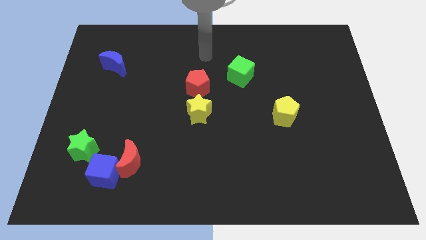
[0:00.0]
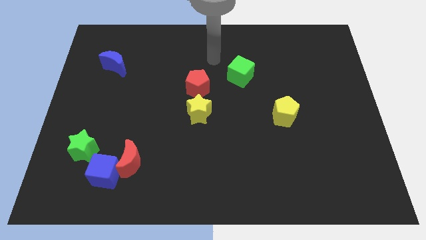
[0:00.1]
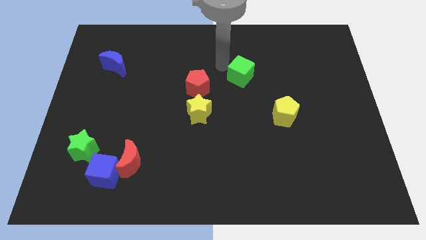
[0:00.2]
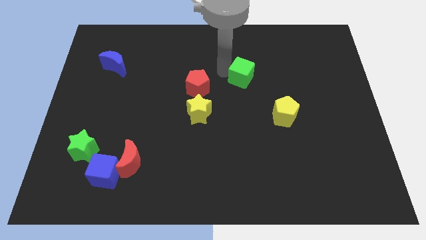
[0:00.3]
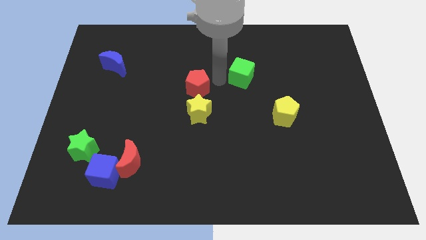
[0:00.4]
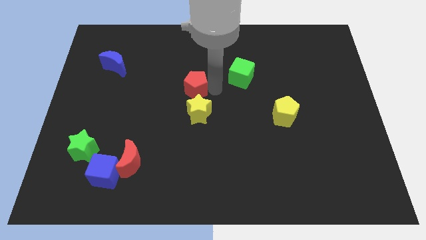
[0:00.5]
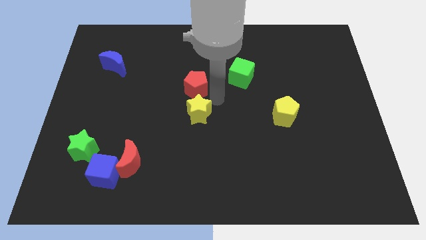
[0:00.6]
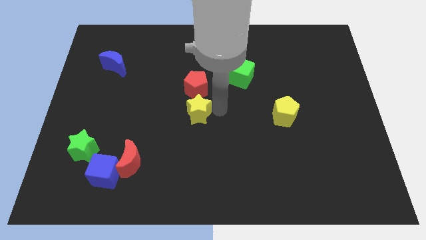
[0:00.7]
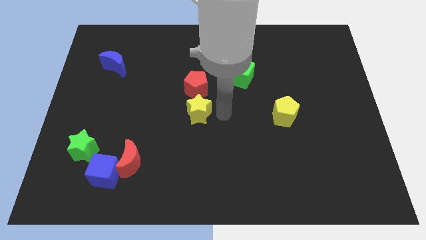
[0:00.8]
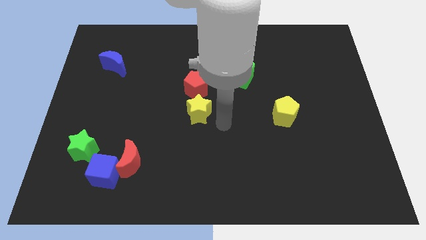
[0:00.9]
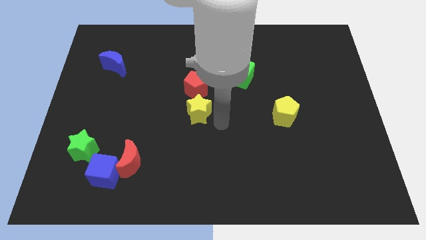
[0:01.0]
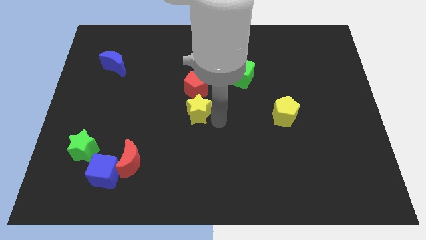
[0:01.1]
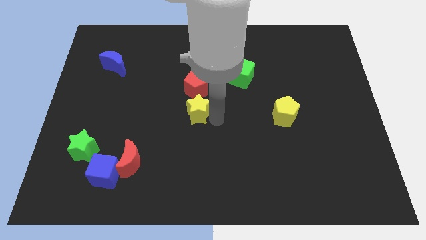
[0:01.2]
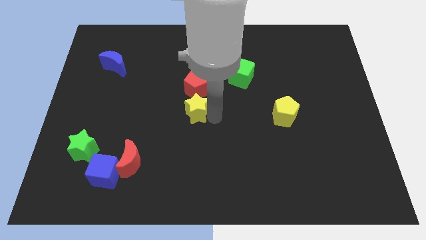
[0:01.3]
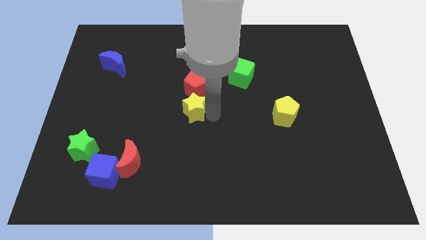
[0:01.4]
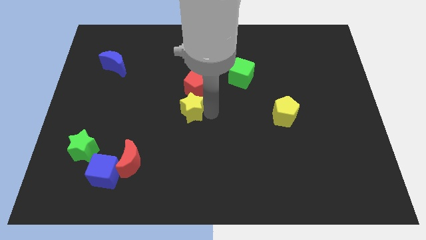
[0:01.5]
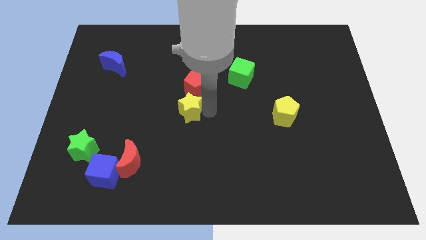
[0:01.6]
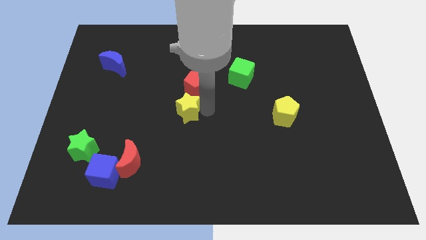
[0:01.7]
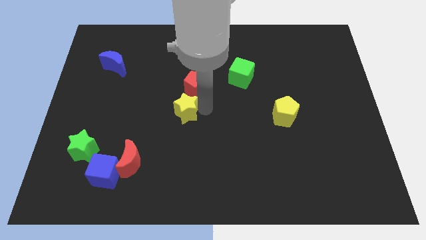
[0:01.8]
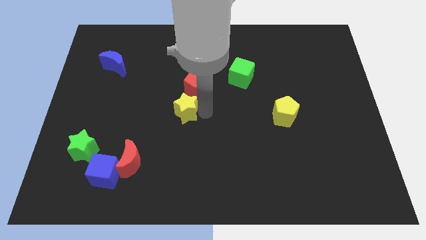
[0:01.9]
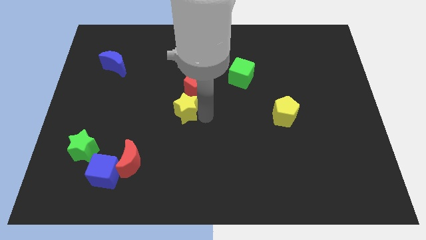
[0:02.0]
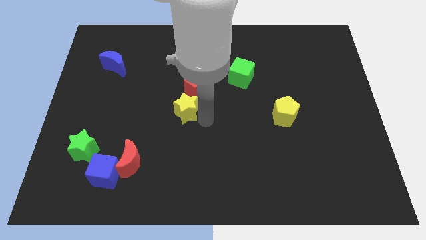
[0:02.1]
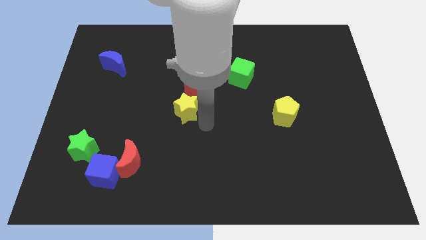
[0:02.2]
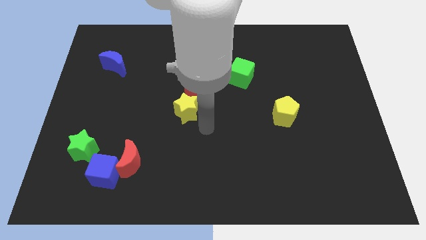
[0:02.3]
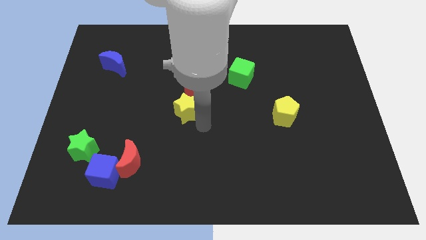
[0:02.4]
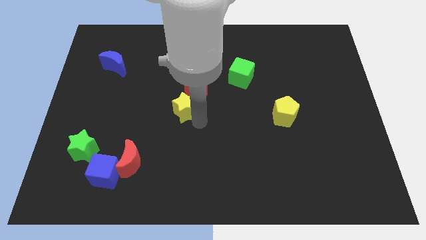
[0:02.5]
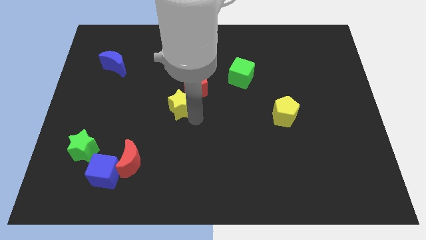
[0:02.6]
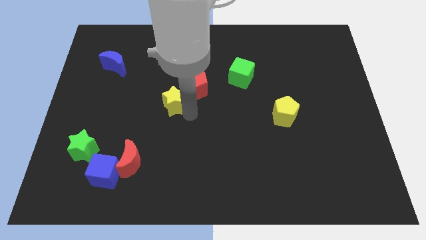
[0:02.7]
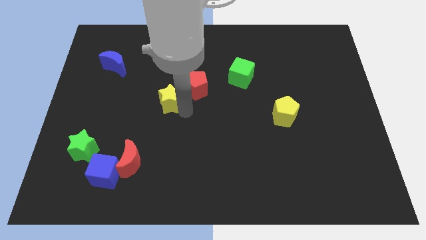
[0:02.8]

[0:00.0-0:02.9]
slide the yellow star upwards and to the left a little bit

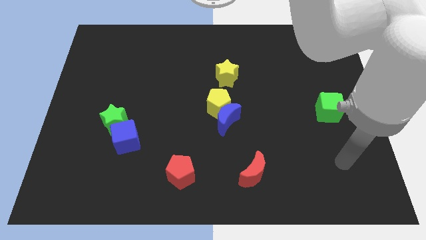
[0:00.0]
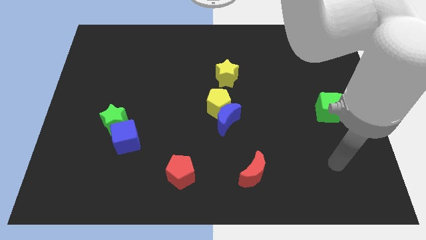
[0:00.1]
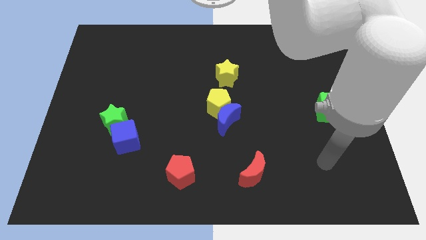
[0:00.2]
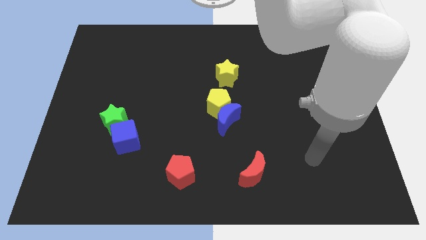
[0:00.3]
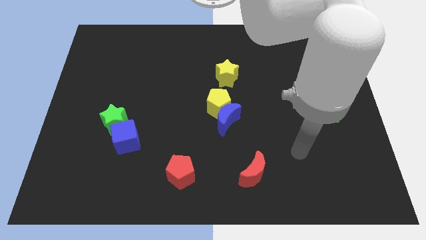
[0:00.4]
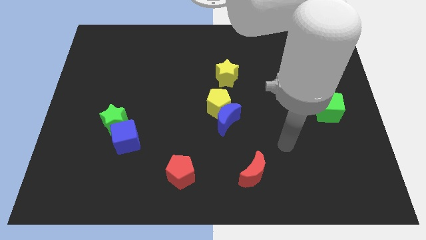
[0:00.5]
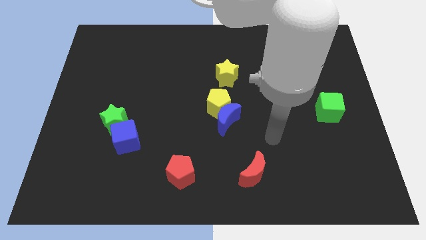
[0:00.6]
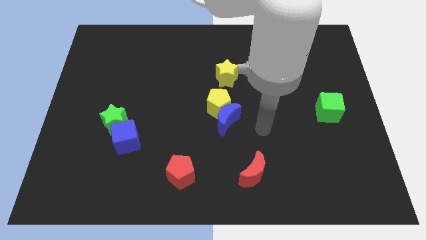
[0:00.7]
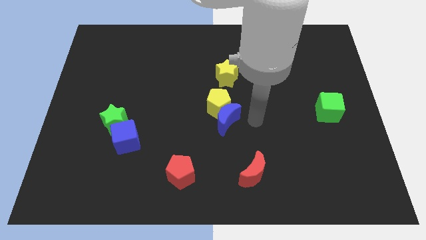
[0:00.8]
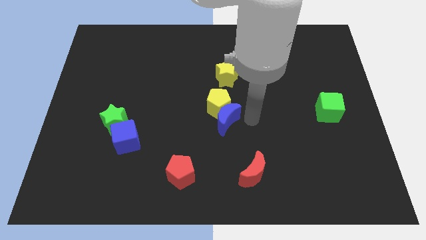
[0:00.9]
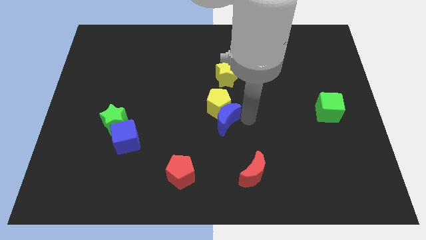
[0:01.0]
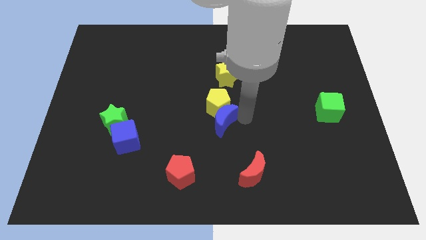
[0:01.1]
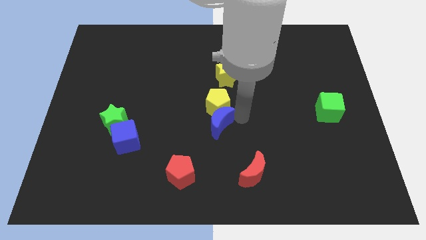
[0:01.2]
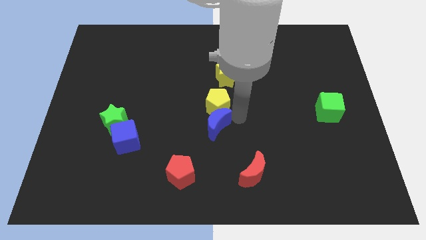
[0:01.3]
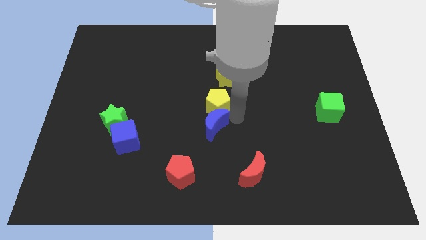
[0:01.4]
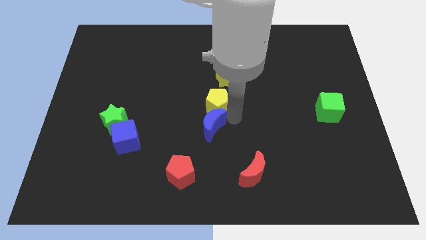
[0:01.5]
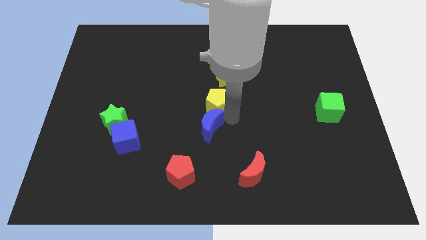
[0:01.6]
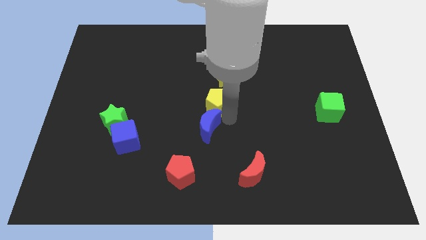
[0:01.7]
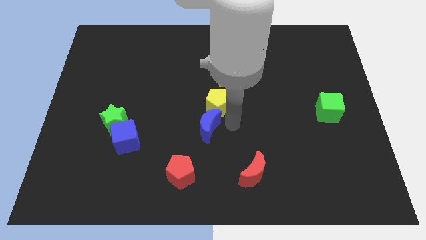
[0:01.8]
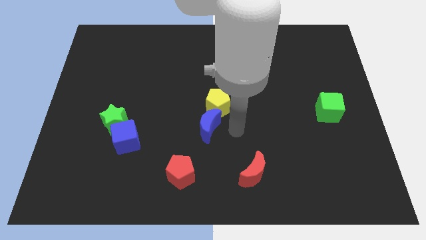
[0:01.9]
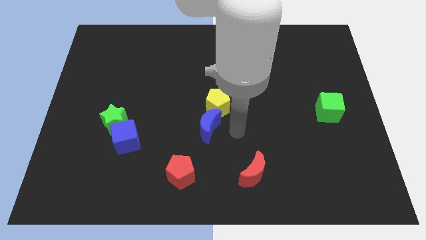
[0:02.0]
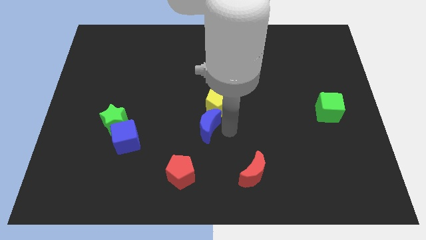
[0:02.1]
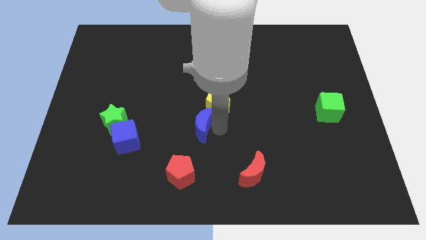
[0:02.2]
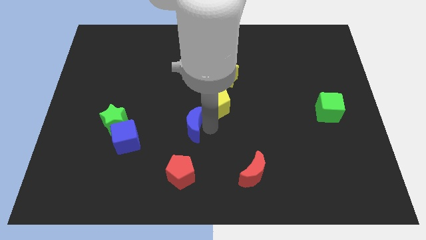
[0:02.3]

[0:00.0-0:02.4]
move the blue moon somewhat to the left

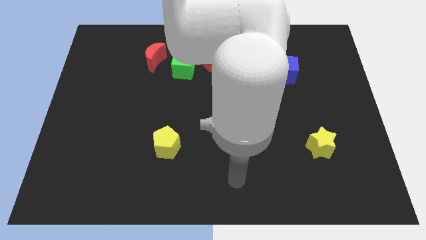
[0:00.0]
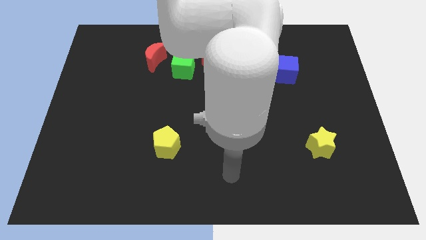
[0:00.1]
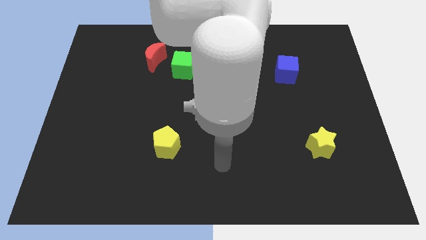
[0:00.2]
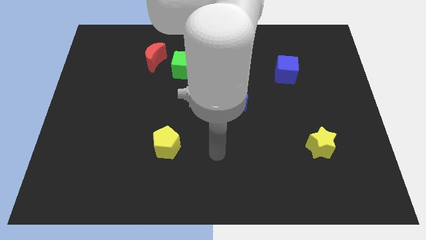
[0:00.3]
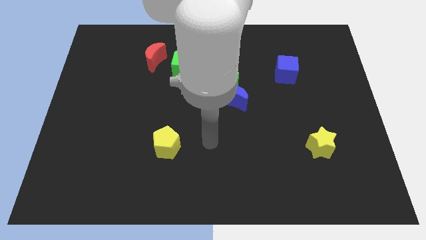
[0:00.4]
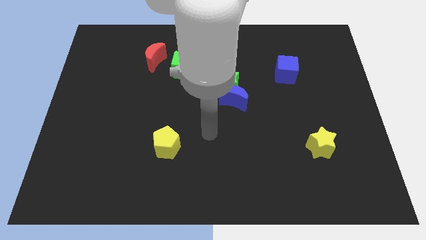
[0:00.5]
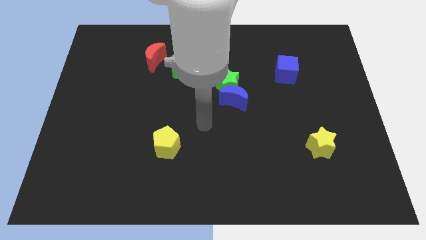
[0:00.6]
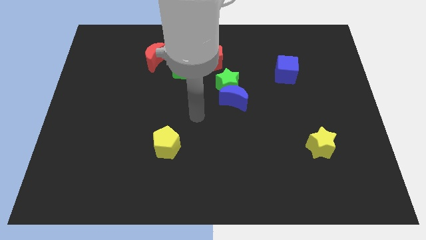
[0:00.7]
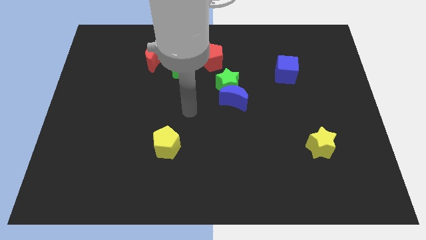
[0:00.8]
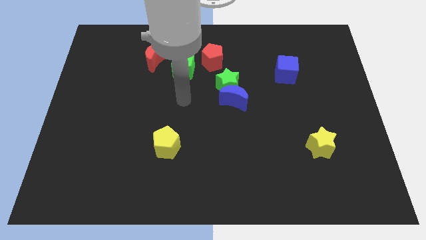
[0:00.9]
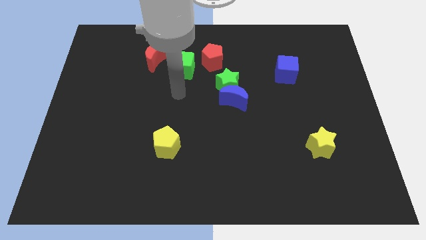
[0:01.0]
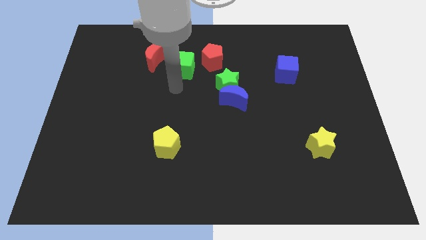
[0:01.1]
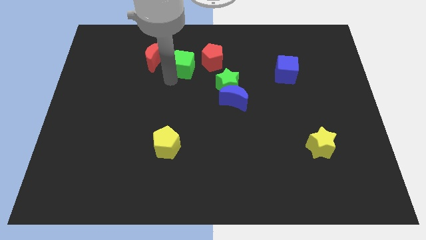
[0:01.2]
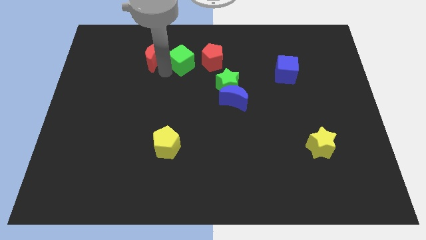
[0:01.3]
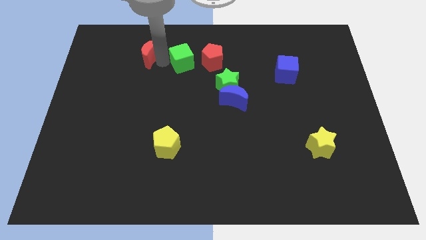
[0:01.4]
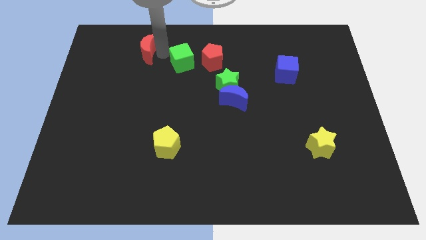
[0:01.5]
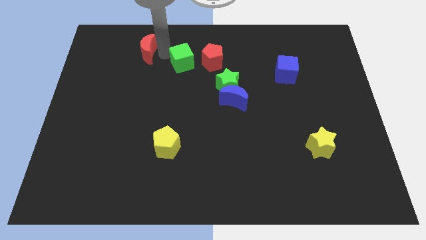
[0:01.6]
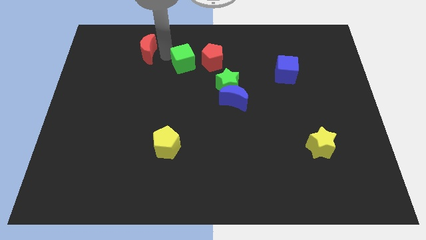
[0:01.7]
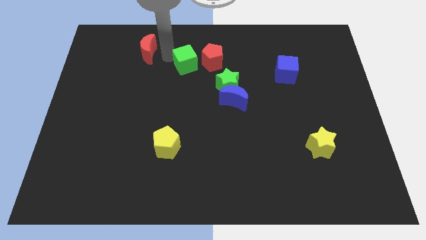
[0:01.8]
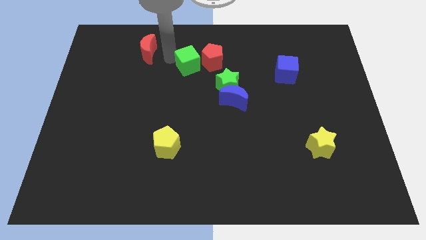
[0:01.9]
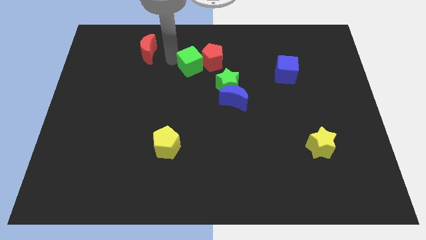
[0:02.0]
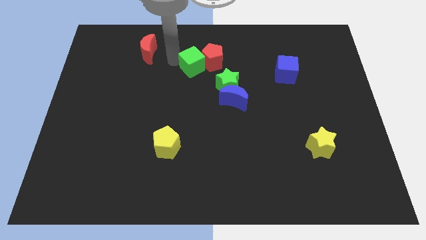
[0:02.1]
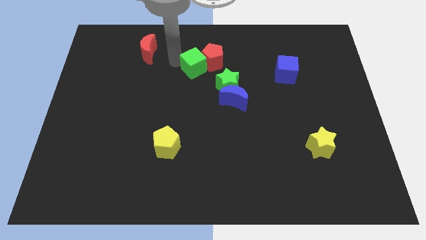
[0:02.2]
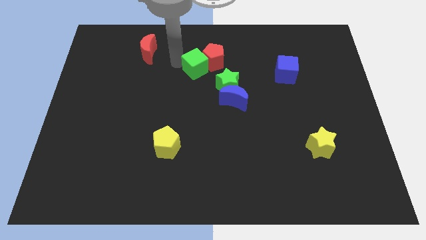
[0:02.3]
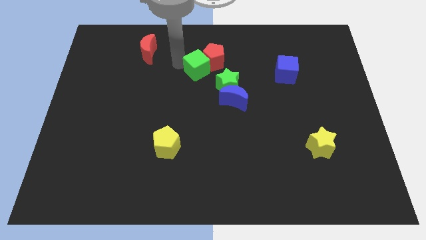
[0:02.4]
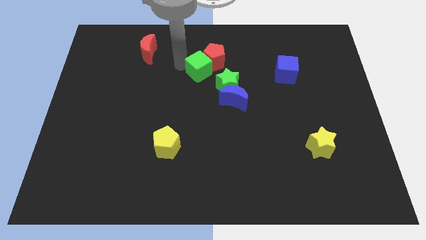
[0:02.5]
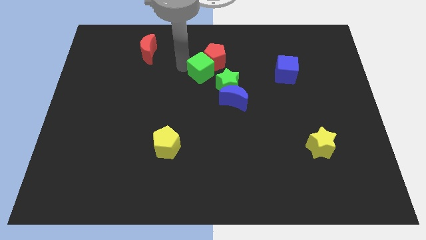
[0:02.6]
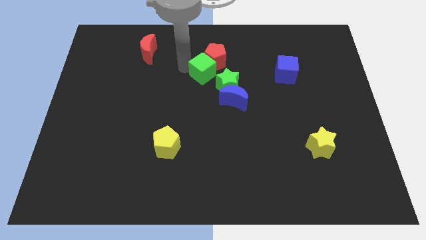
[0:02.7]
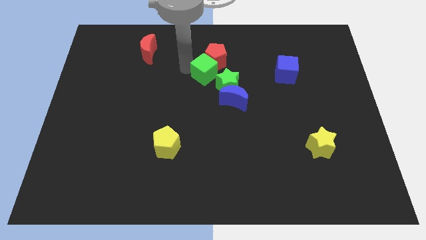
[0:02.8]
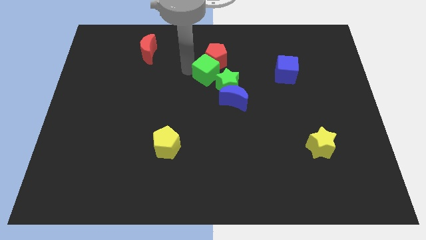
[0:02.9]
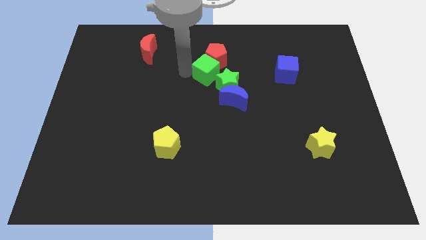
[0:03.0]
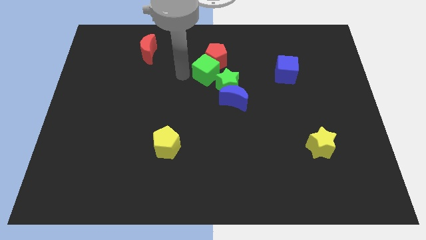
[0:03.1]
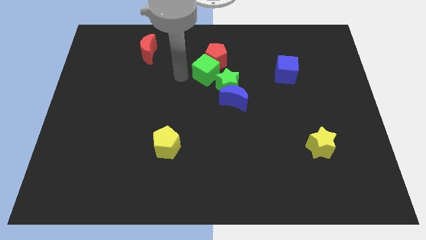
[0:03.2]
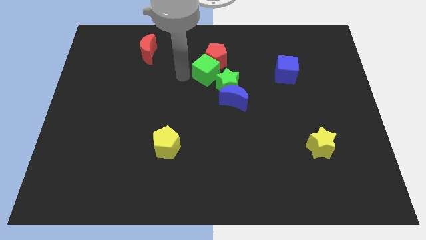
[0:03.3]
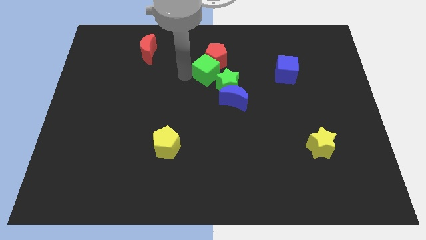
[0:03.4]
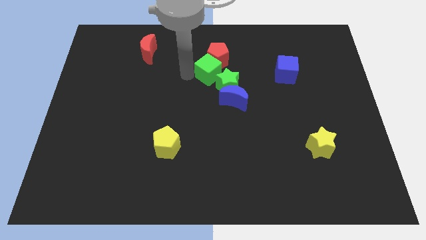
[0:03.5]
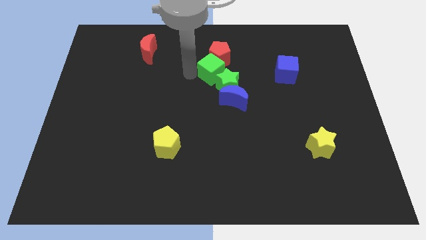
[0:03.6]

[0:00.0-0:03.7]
move the green cube somewhat to the right
